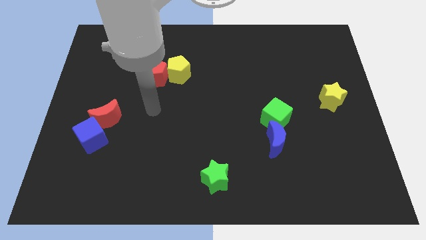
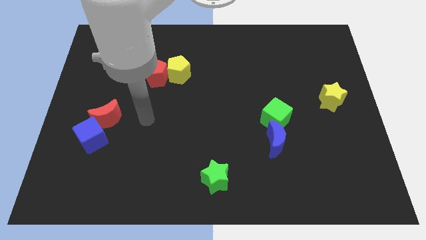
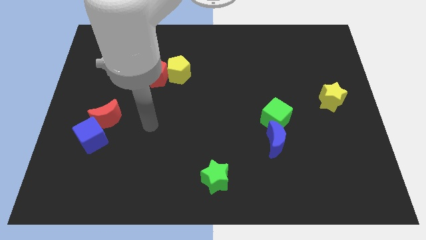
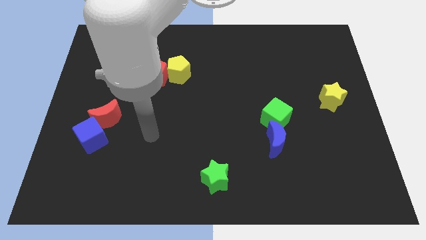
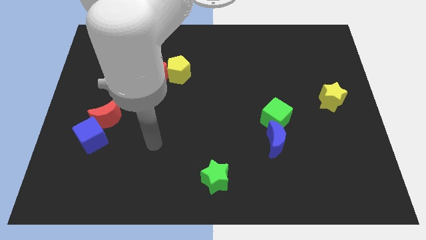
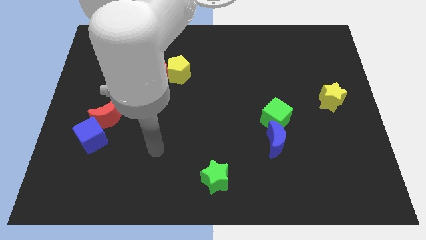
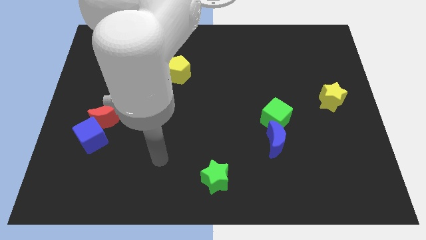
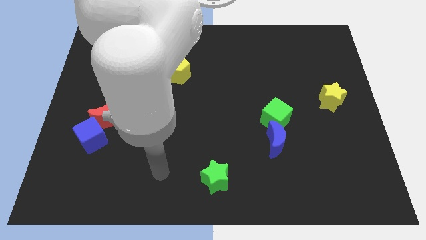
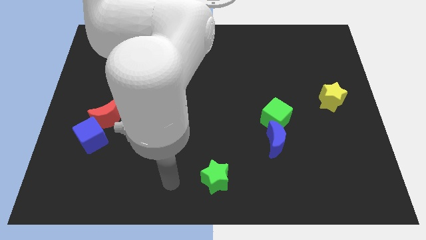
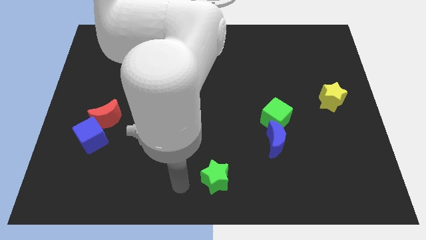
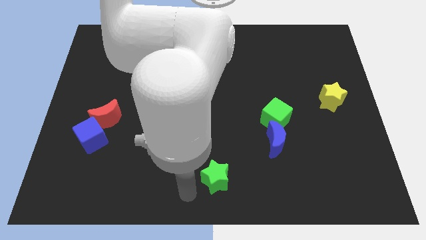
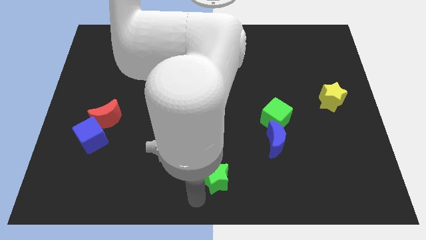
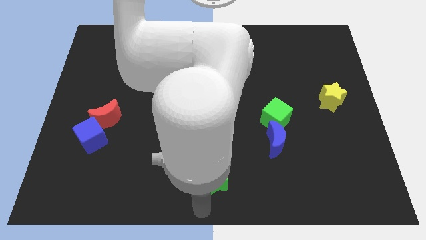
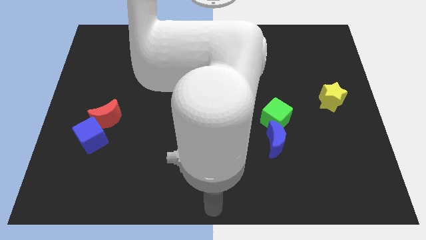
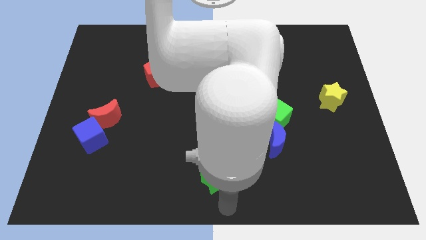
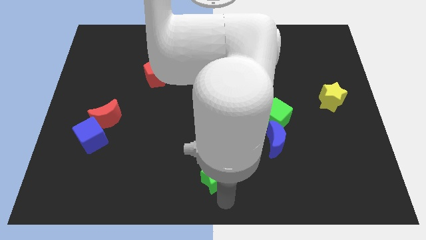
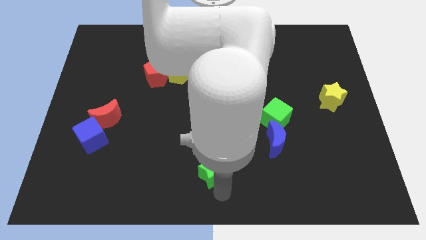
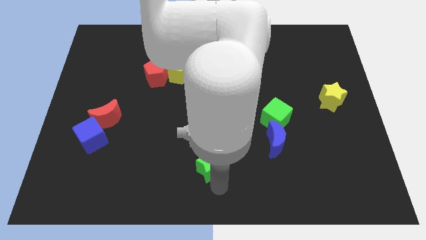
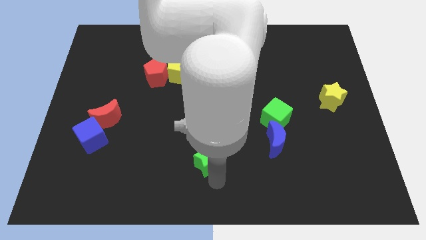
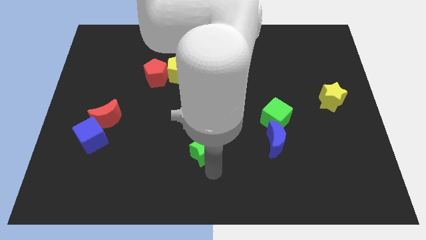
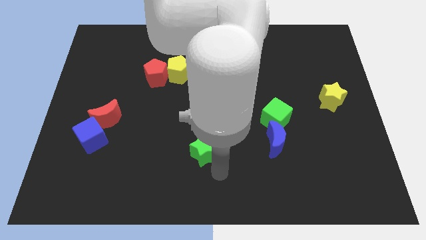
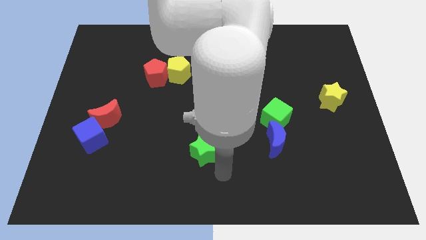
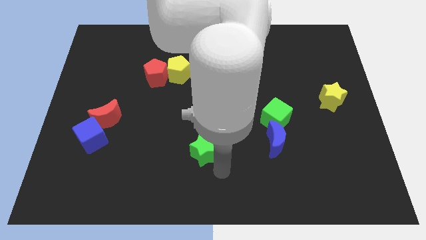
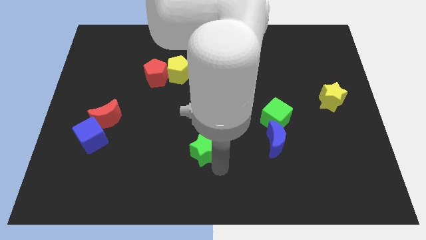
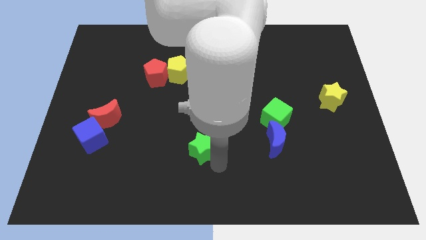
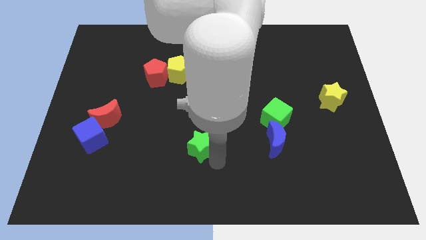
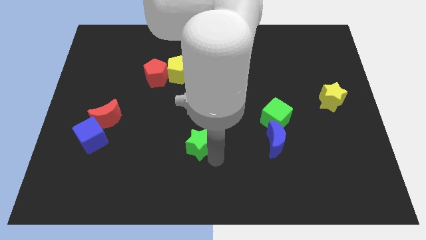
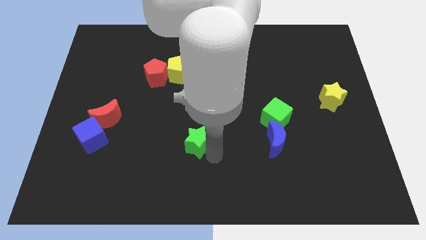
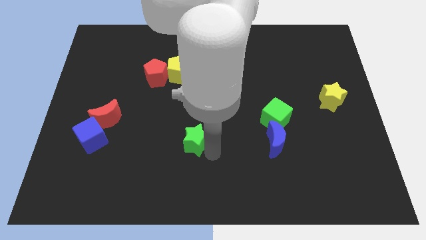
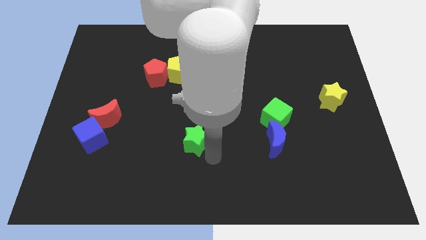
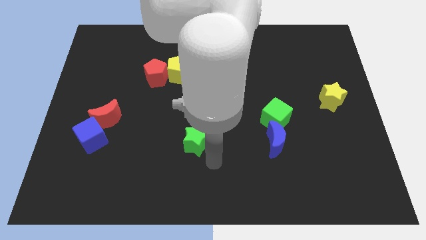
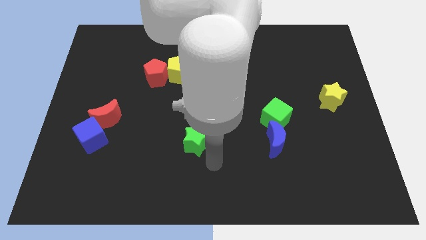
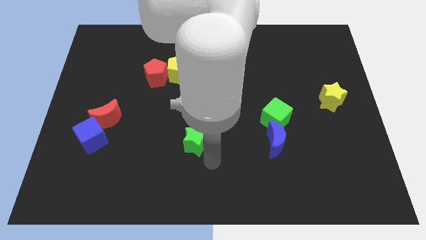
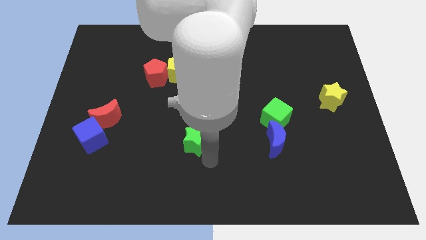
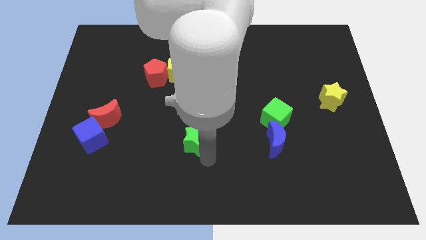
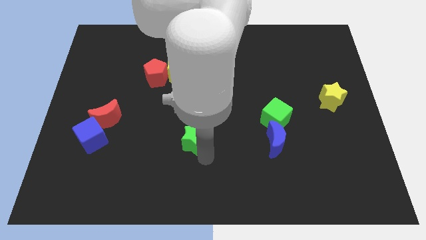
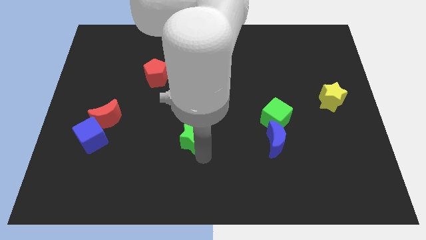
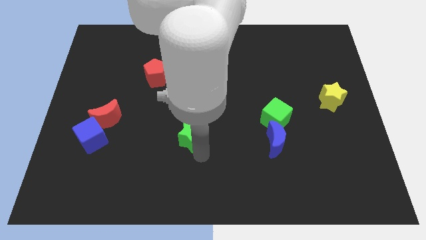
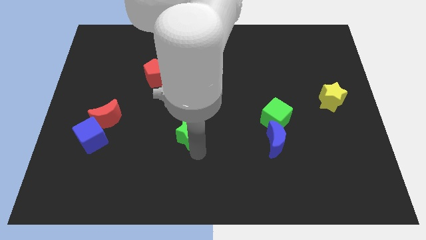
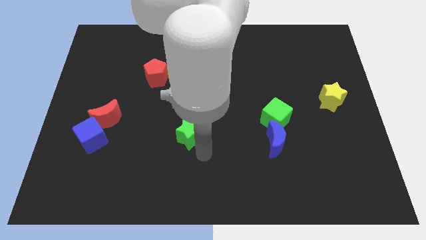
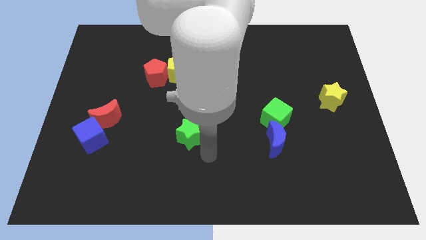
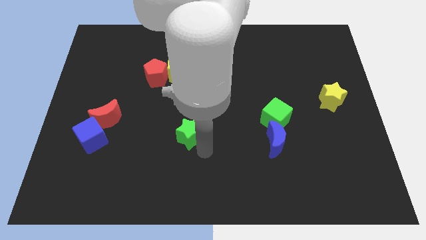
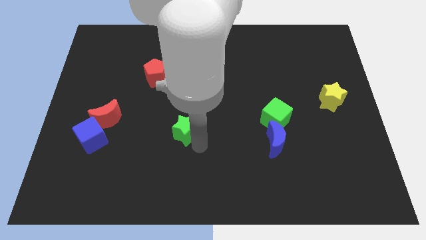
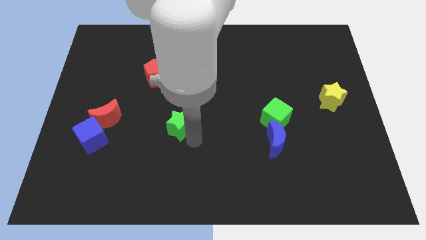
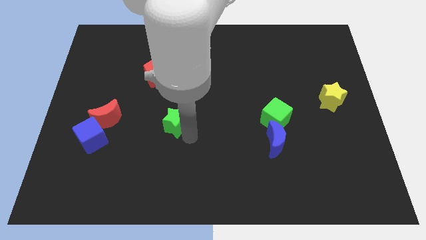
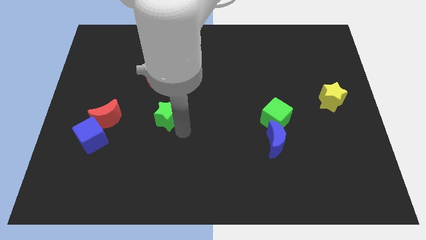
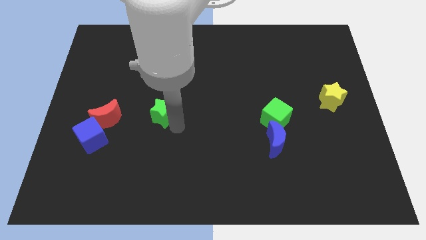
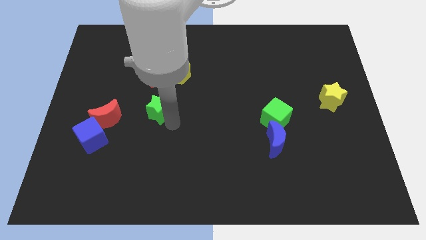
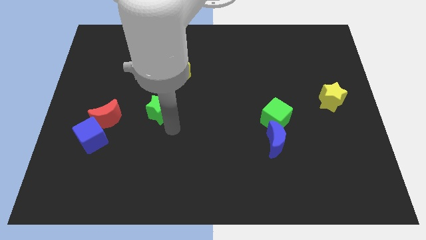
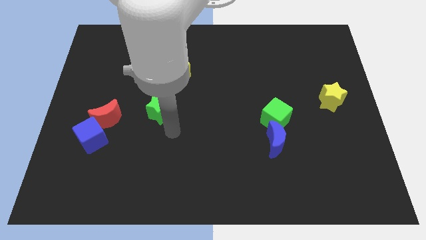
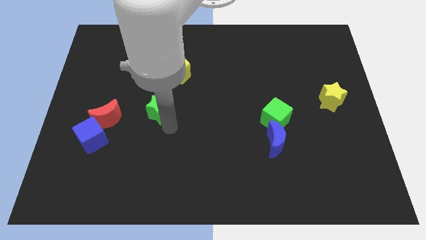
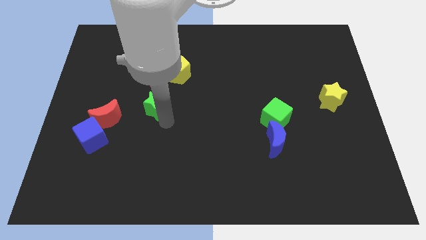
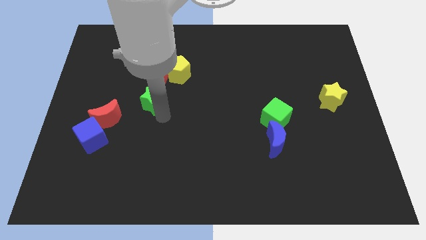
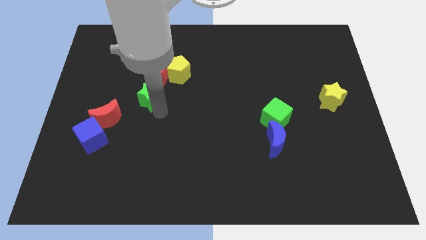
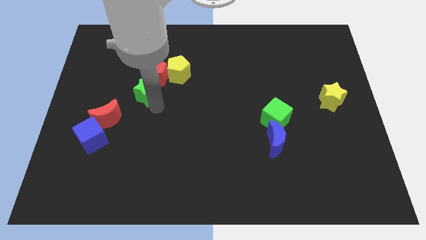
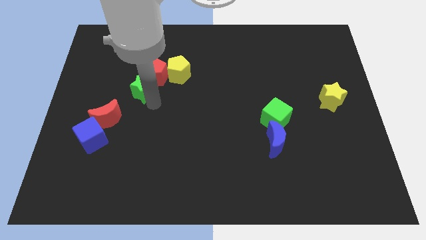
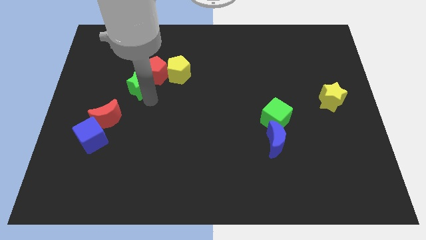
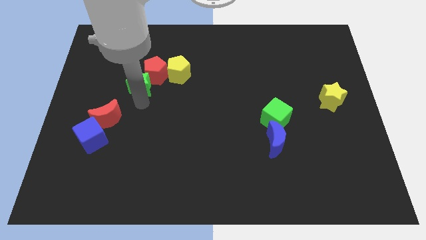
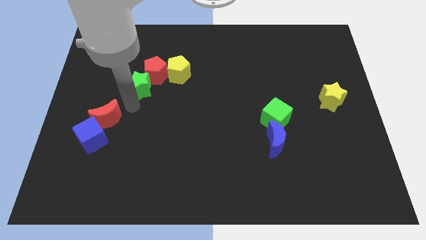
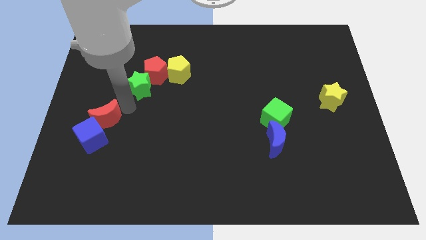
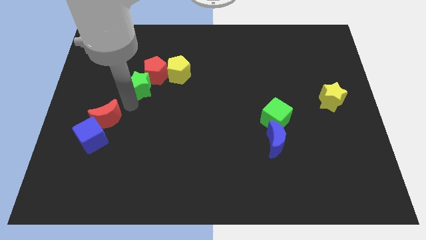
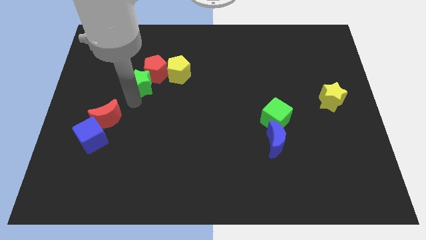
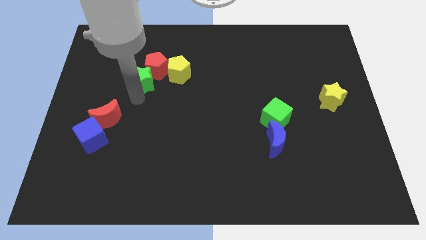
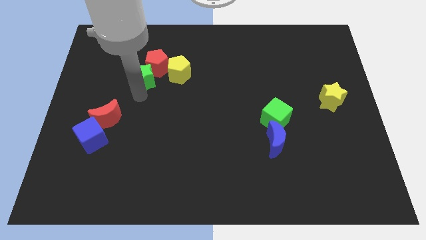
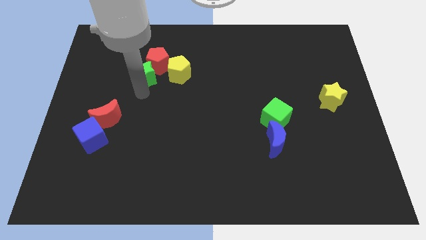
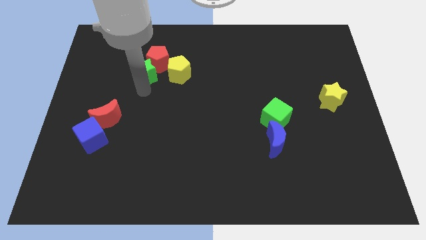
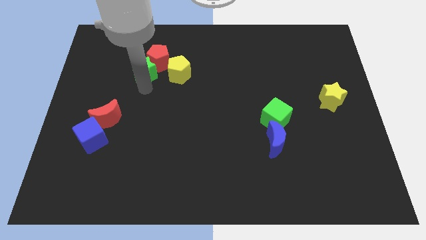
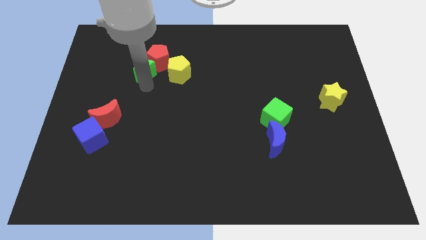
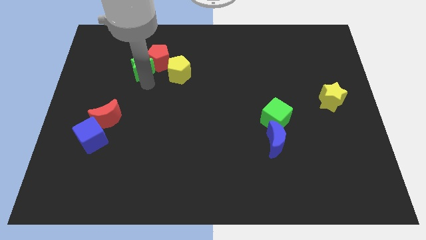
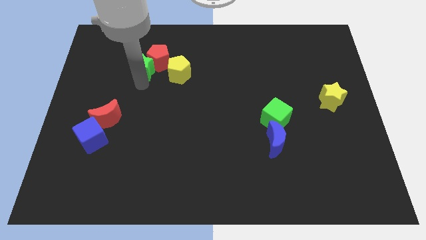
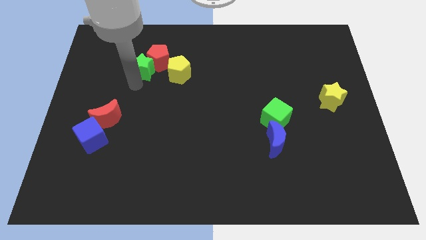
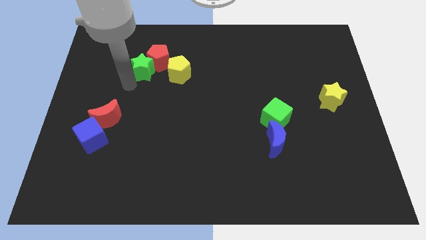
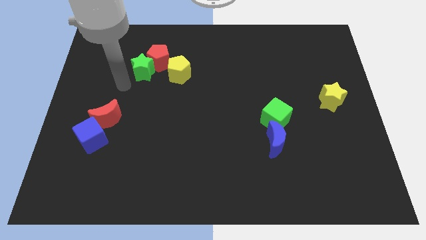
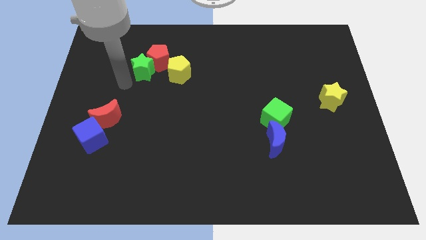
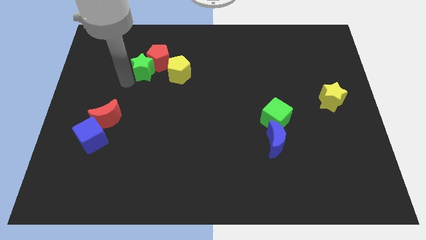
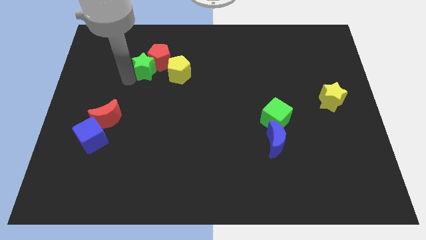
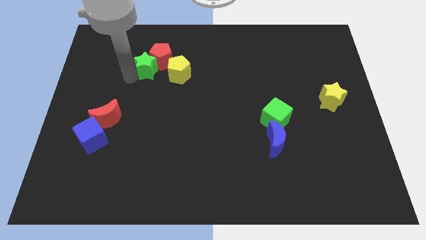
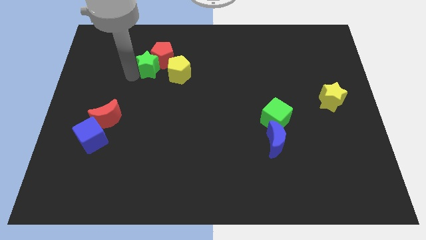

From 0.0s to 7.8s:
put the green star diagonally up and to the left of the yellow pentagon
